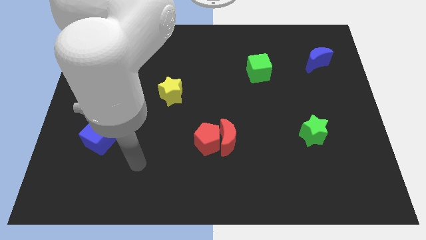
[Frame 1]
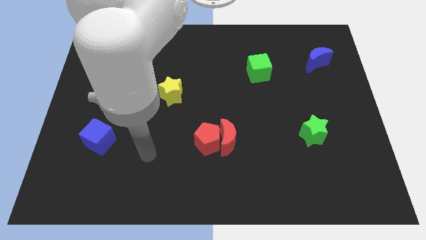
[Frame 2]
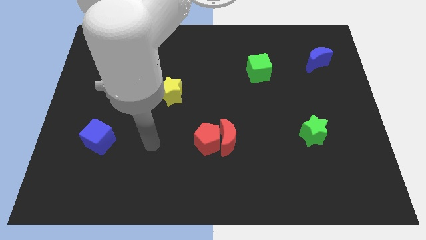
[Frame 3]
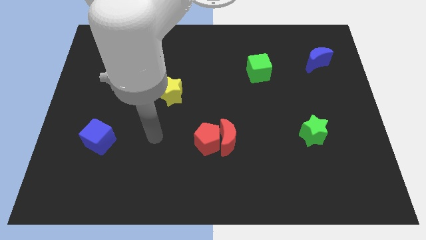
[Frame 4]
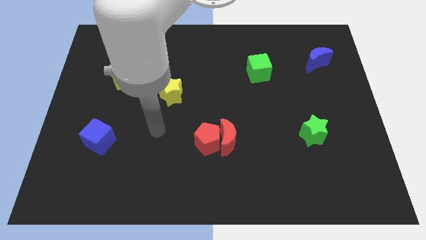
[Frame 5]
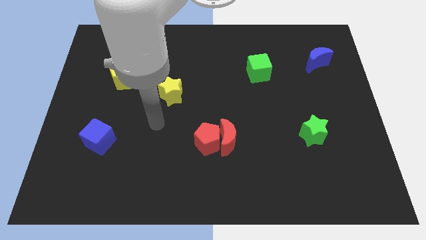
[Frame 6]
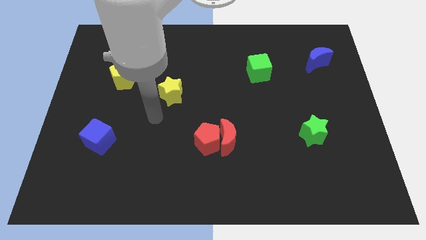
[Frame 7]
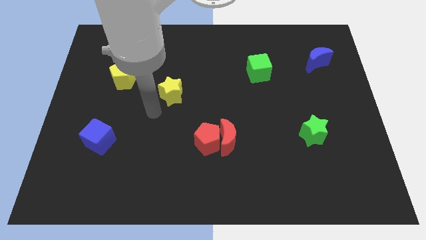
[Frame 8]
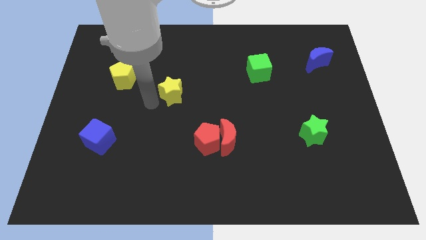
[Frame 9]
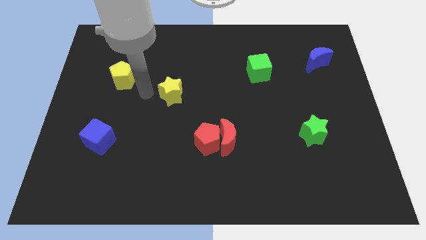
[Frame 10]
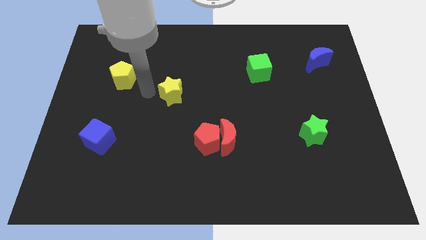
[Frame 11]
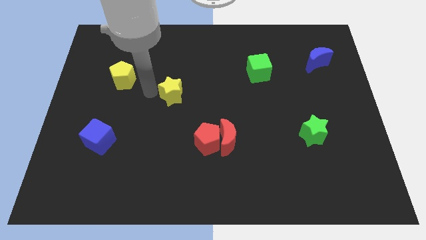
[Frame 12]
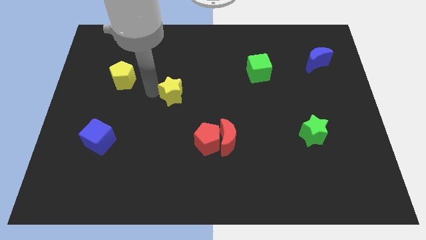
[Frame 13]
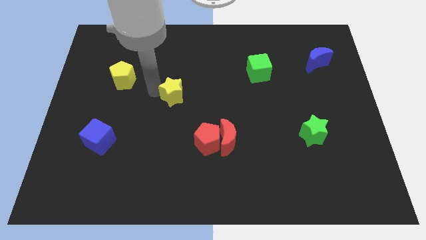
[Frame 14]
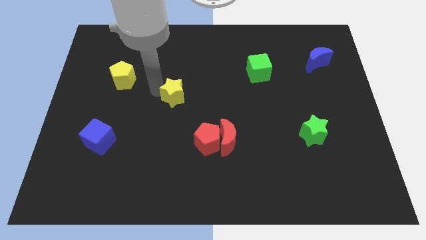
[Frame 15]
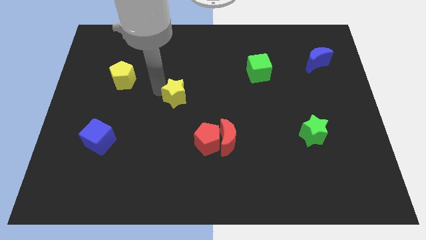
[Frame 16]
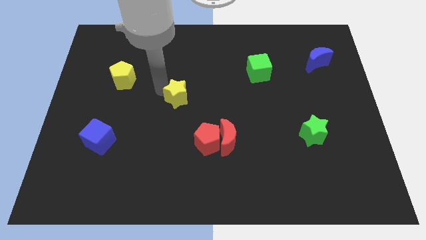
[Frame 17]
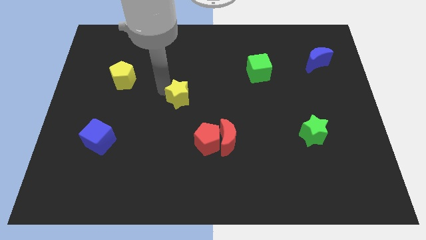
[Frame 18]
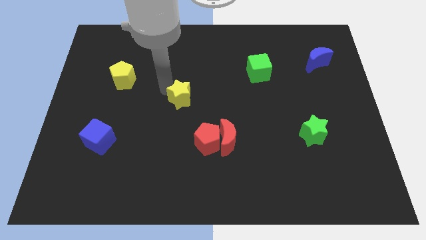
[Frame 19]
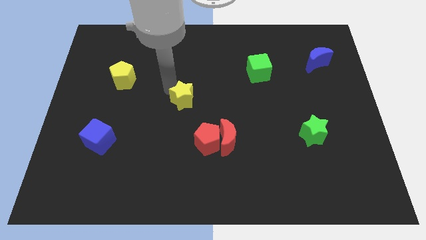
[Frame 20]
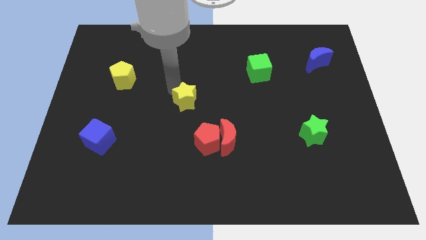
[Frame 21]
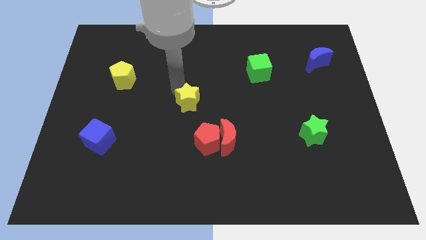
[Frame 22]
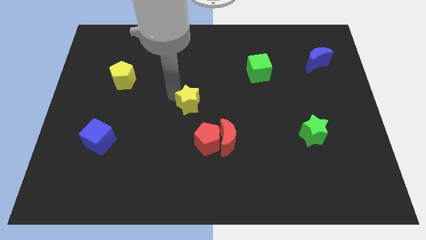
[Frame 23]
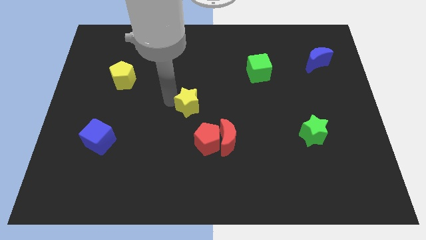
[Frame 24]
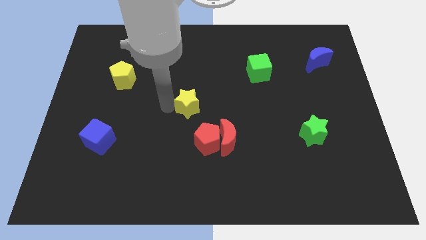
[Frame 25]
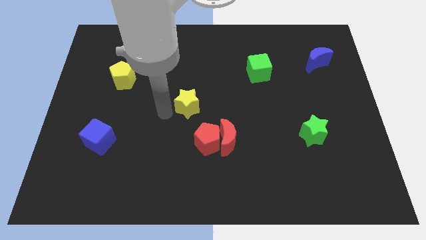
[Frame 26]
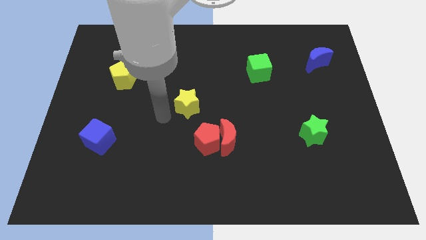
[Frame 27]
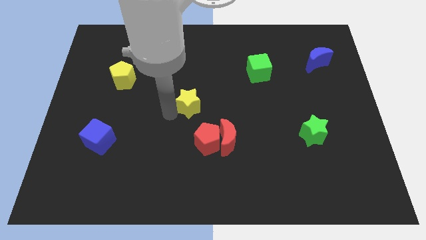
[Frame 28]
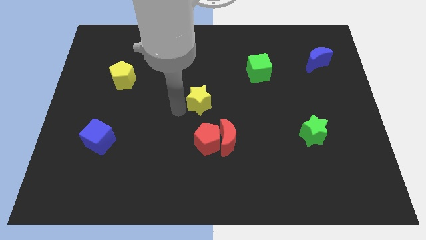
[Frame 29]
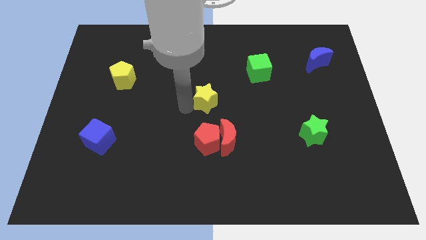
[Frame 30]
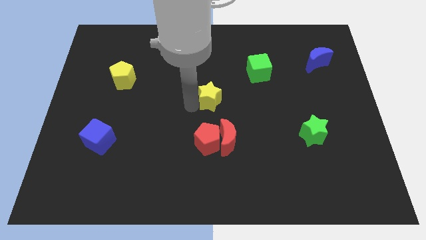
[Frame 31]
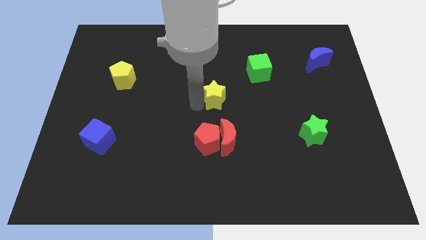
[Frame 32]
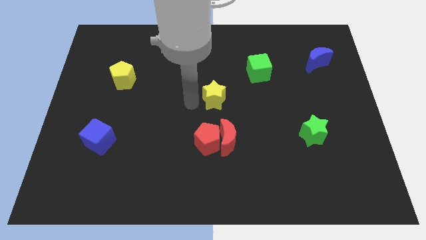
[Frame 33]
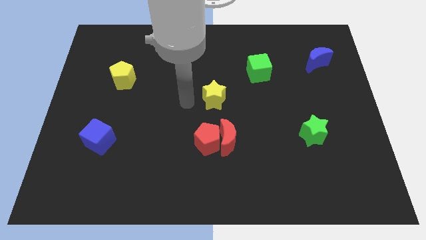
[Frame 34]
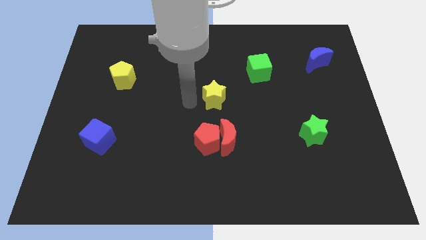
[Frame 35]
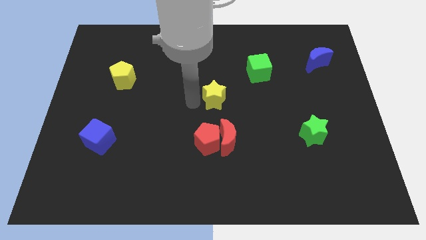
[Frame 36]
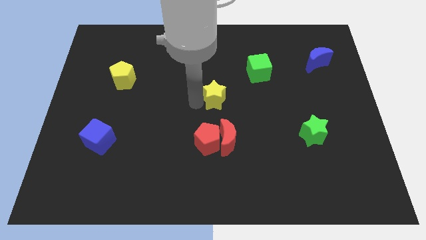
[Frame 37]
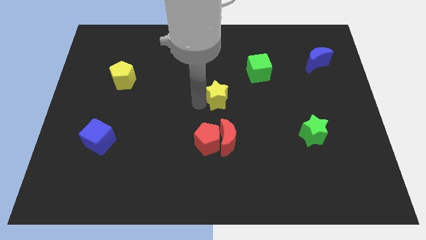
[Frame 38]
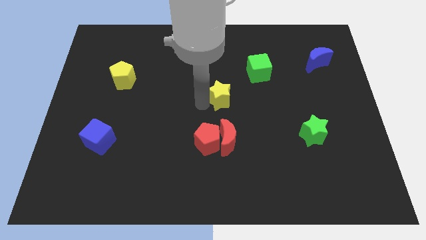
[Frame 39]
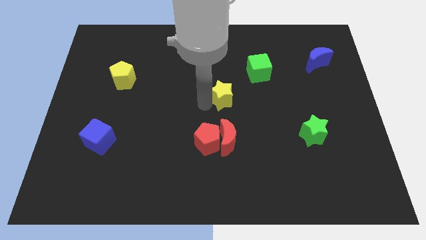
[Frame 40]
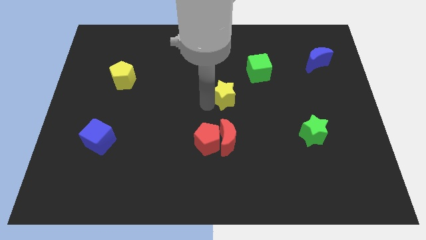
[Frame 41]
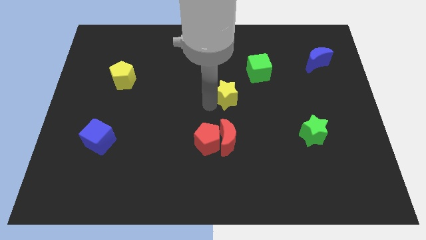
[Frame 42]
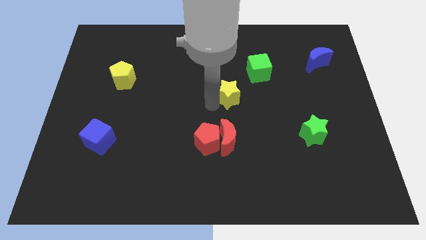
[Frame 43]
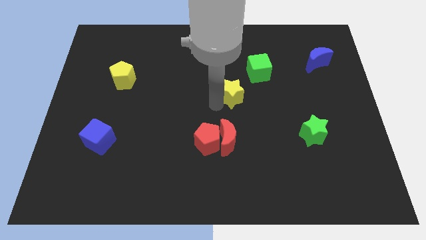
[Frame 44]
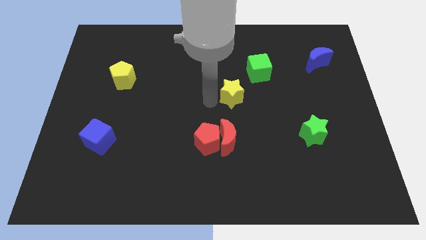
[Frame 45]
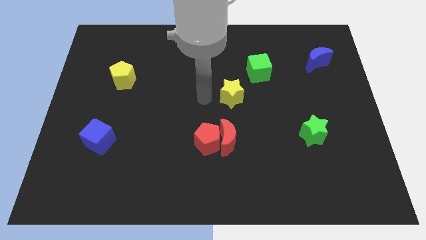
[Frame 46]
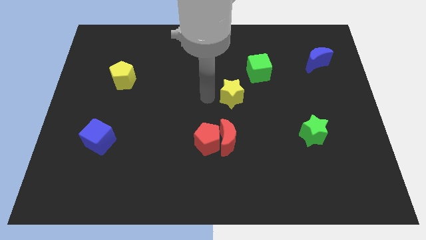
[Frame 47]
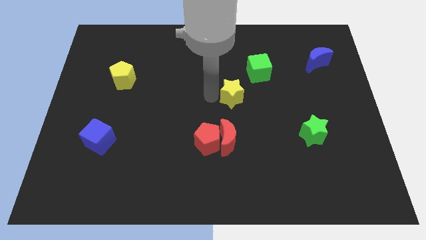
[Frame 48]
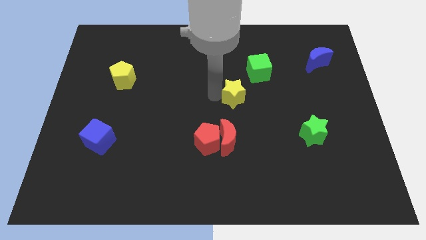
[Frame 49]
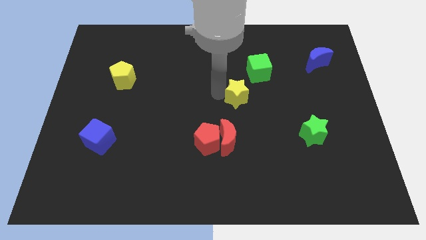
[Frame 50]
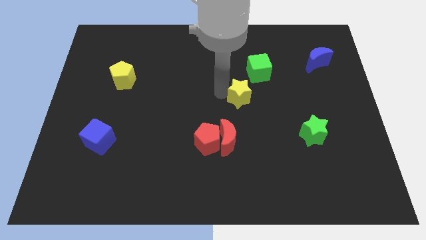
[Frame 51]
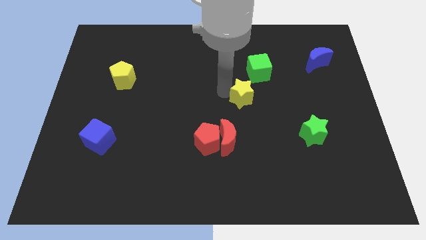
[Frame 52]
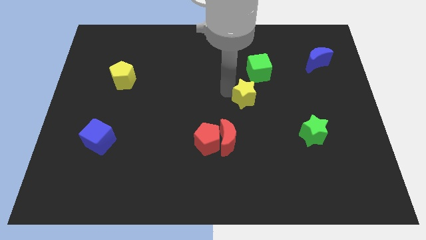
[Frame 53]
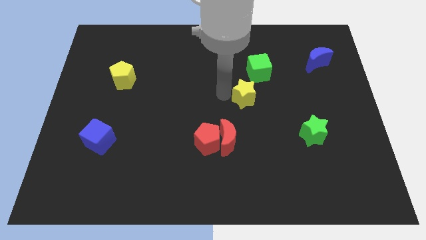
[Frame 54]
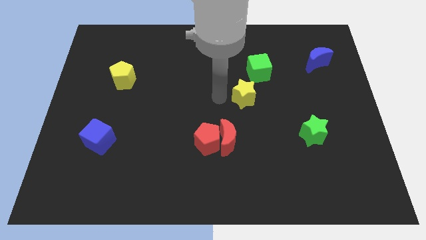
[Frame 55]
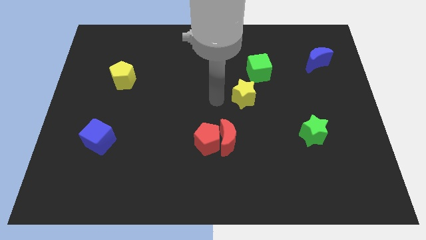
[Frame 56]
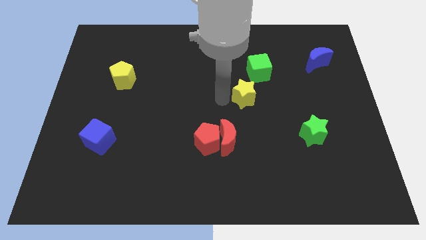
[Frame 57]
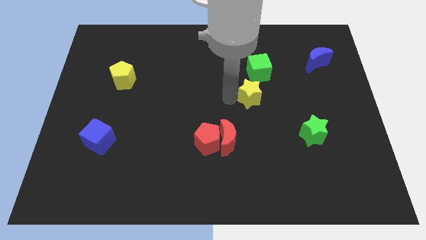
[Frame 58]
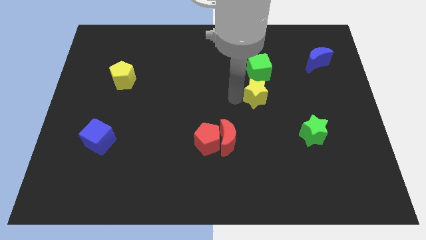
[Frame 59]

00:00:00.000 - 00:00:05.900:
slide the yellow star to the right

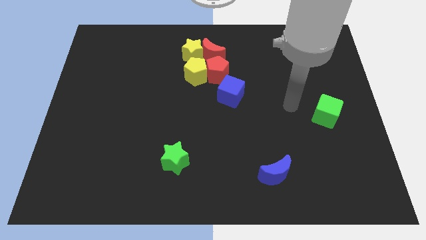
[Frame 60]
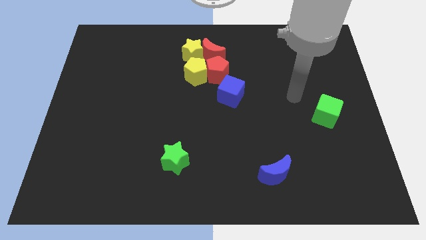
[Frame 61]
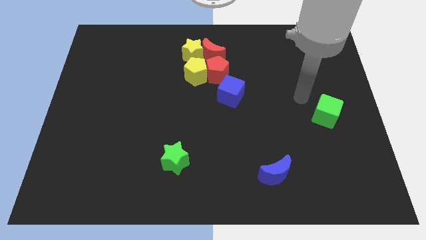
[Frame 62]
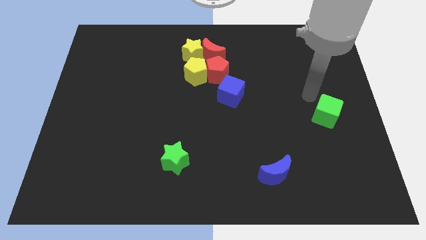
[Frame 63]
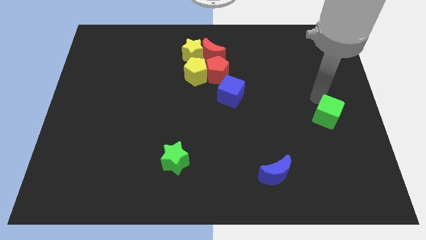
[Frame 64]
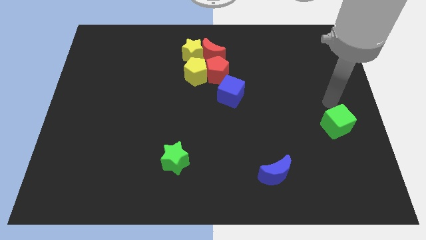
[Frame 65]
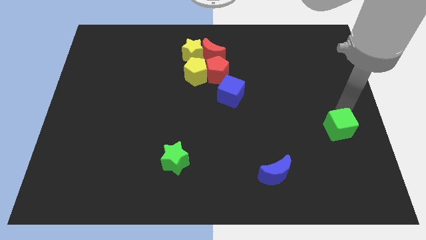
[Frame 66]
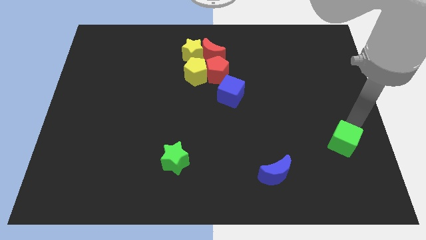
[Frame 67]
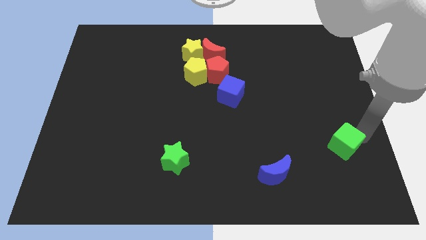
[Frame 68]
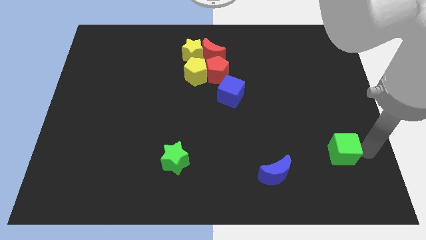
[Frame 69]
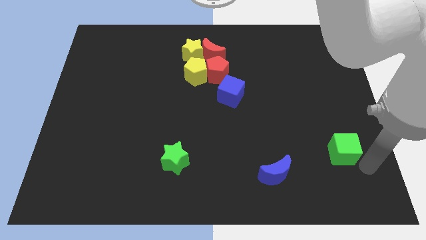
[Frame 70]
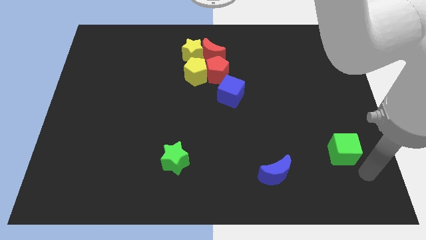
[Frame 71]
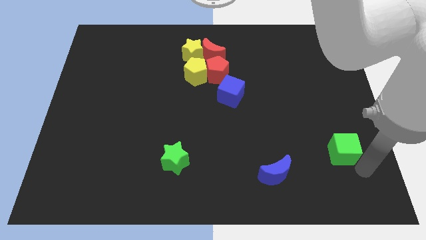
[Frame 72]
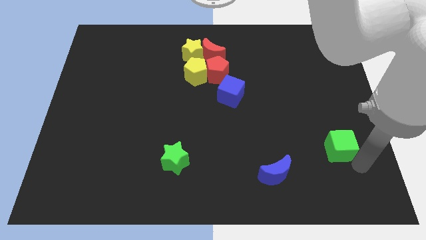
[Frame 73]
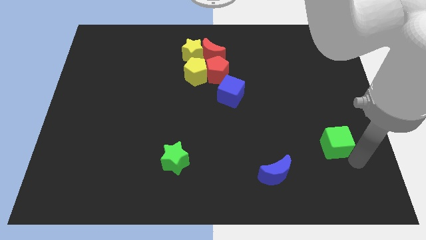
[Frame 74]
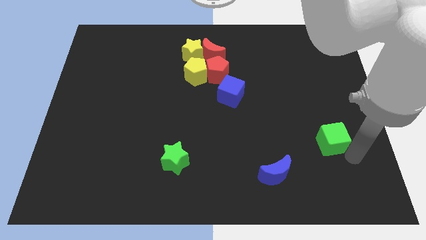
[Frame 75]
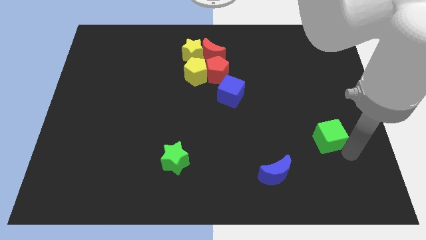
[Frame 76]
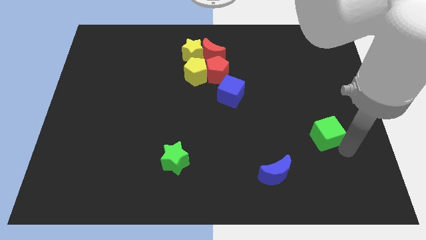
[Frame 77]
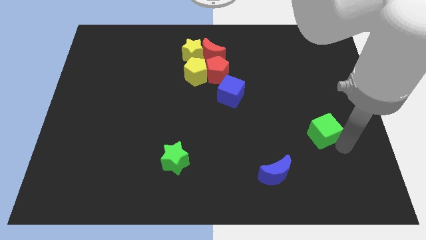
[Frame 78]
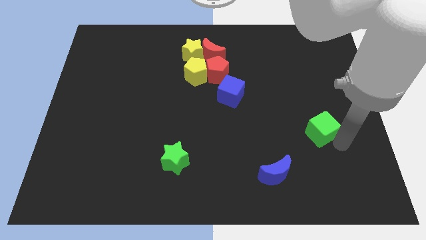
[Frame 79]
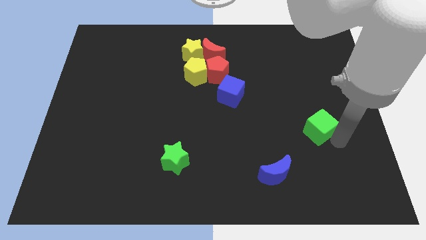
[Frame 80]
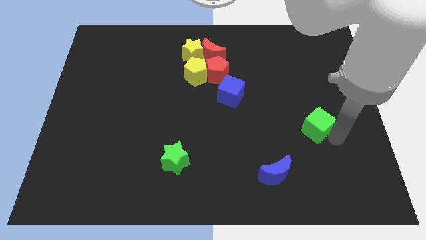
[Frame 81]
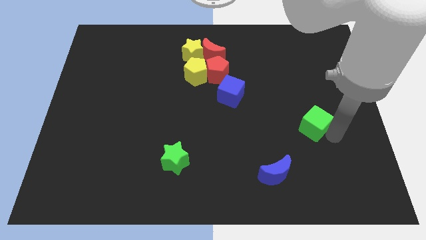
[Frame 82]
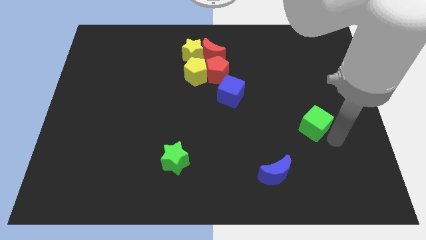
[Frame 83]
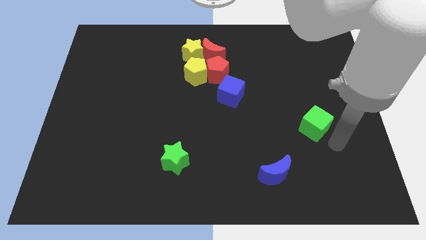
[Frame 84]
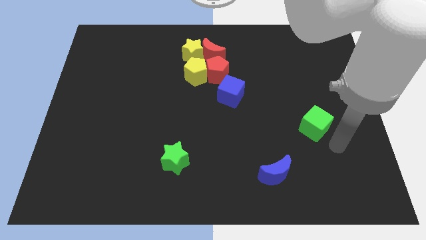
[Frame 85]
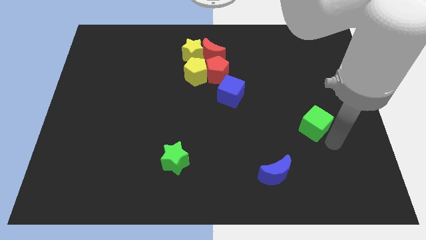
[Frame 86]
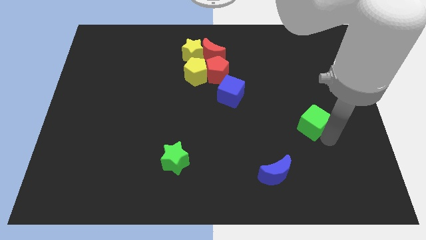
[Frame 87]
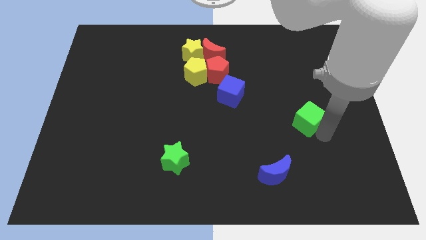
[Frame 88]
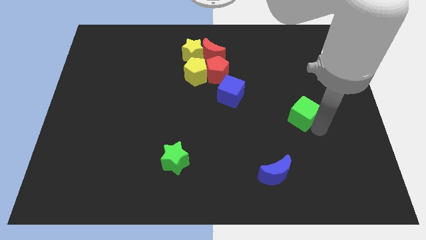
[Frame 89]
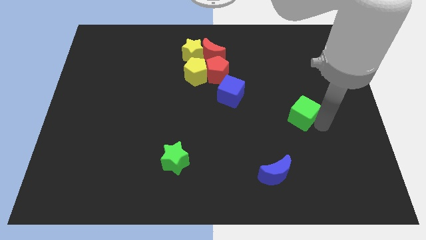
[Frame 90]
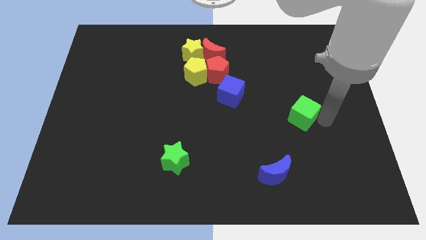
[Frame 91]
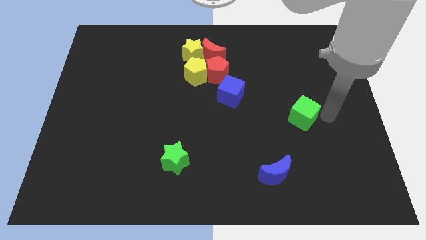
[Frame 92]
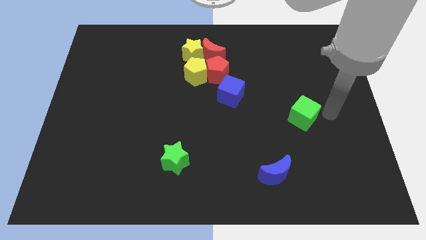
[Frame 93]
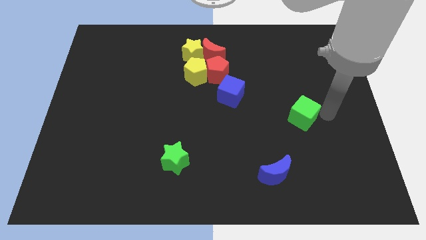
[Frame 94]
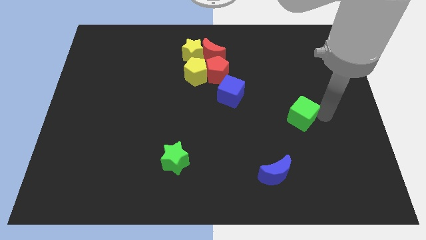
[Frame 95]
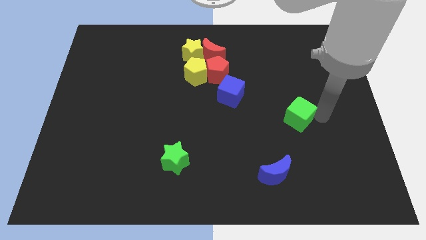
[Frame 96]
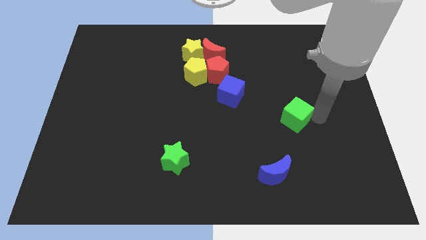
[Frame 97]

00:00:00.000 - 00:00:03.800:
push the green cube somewhat left
